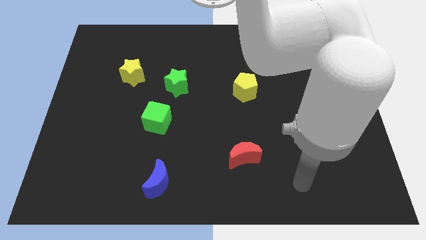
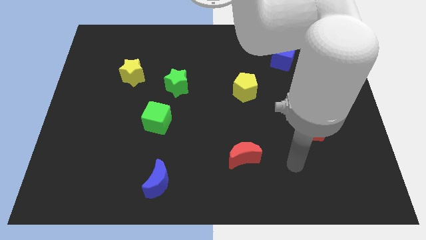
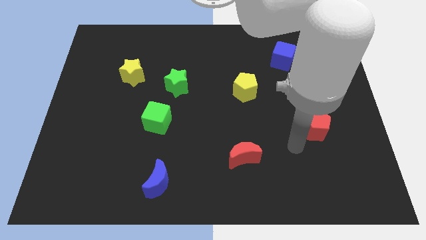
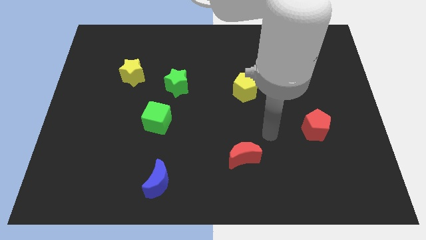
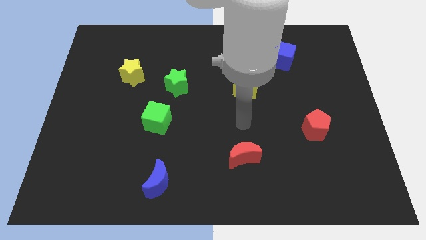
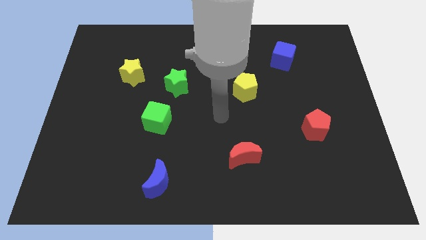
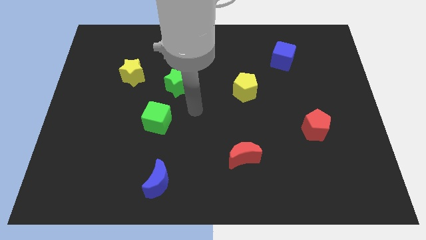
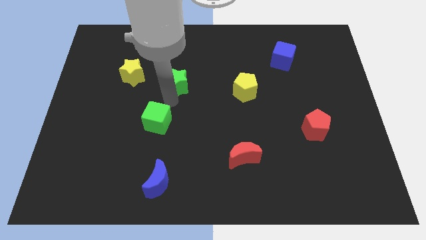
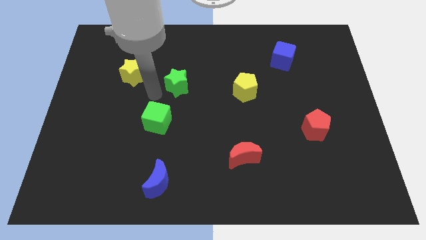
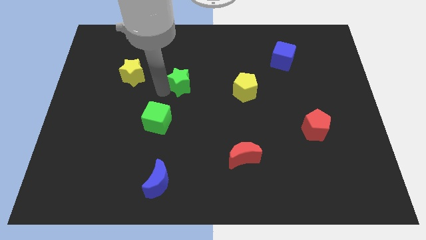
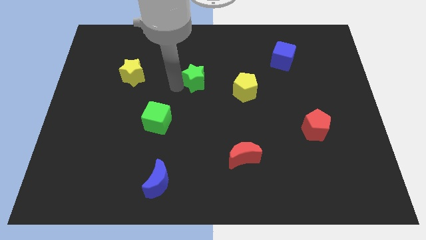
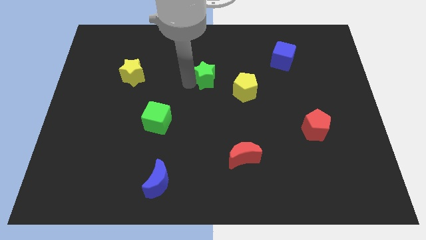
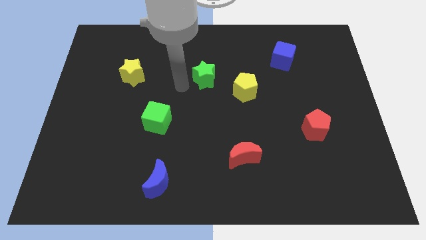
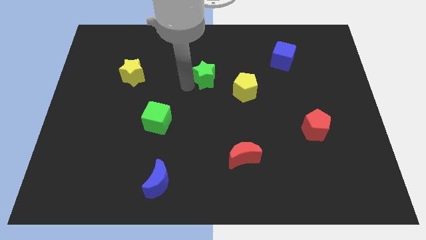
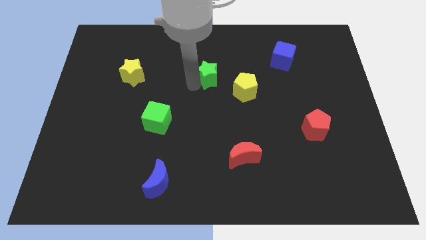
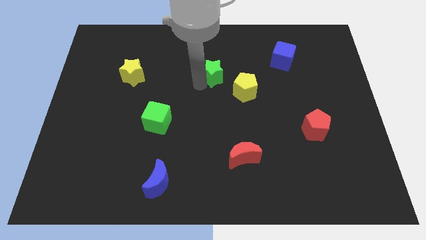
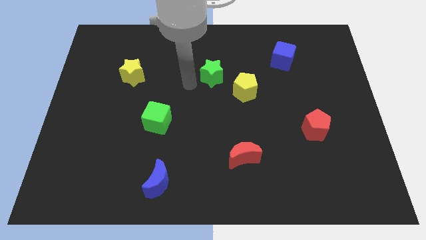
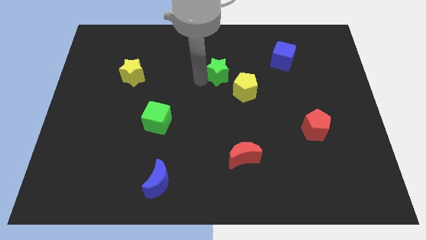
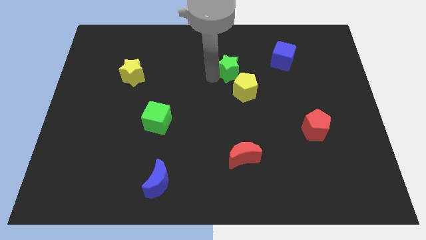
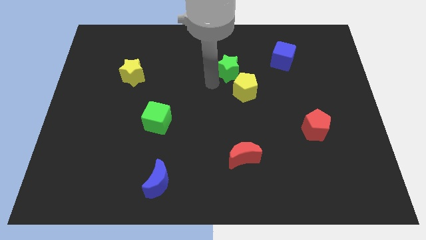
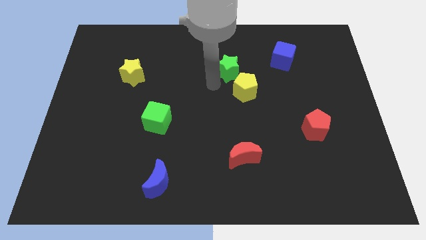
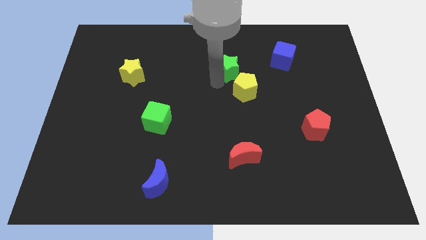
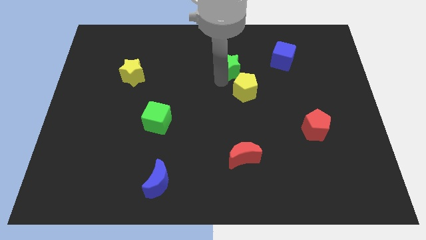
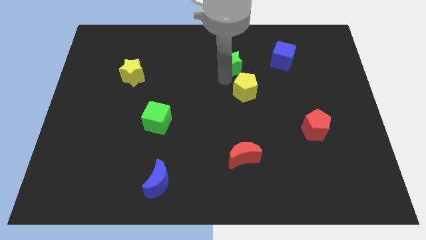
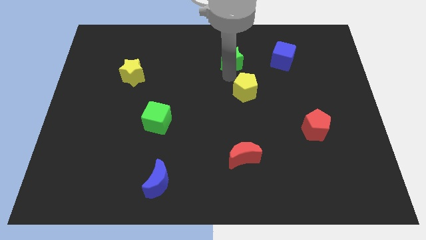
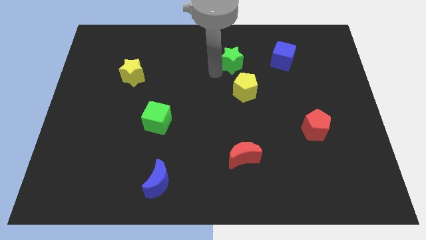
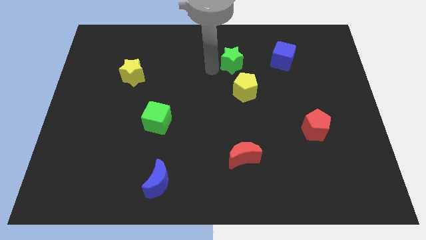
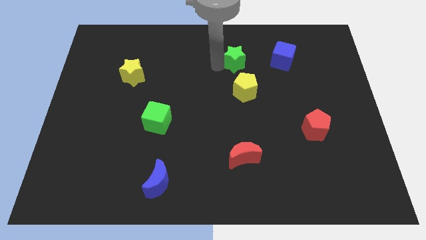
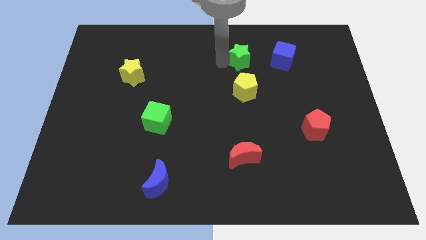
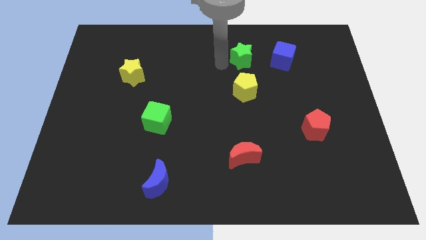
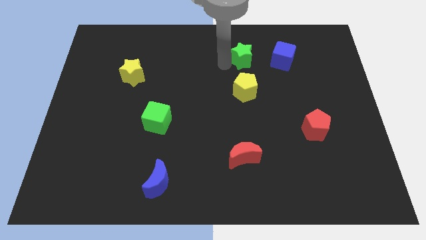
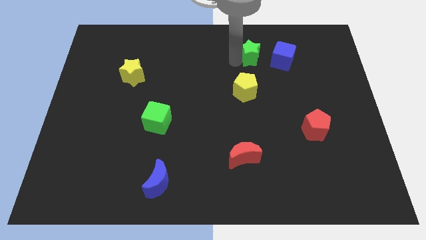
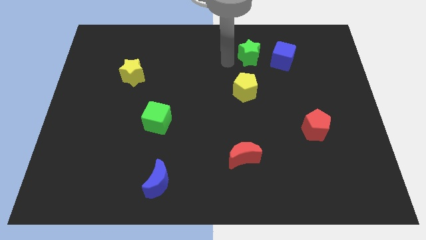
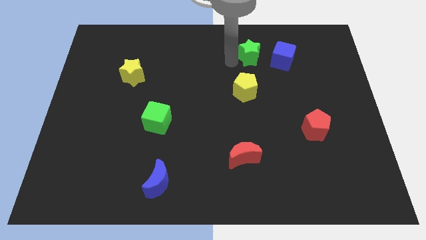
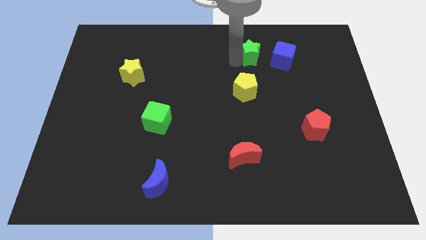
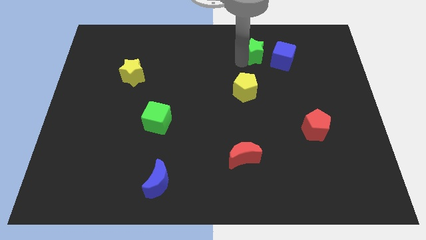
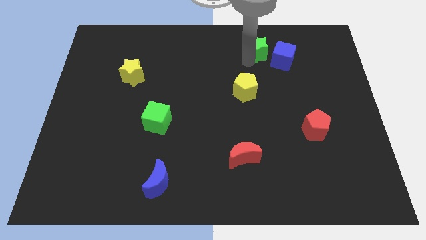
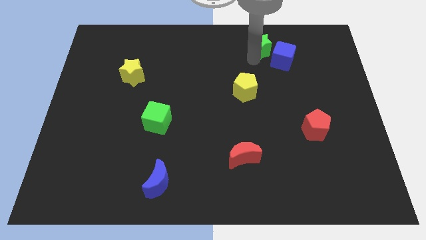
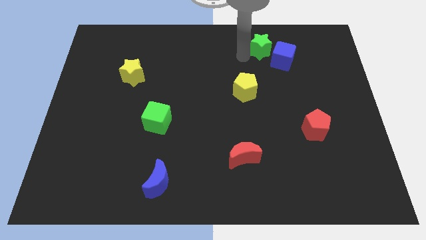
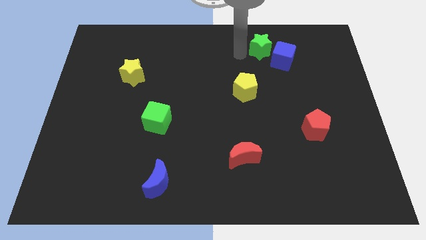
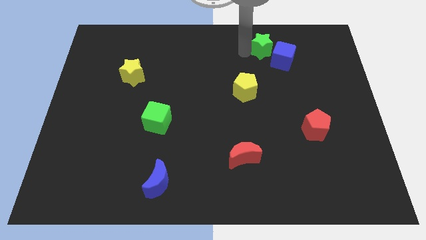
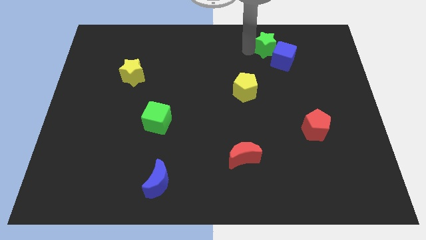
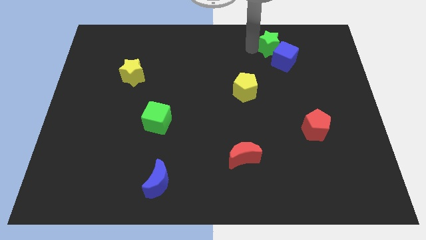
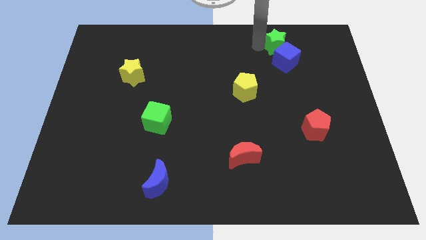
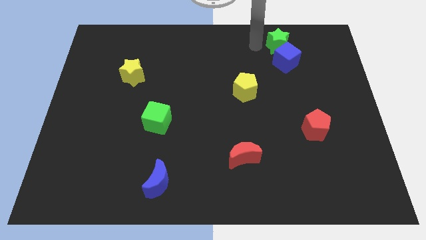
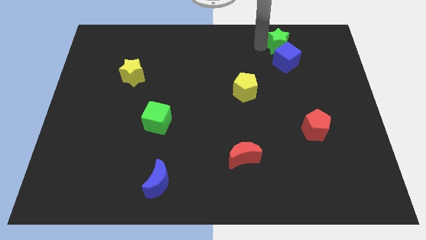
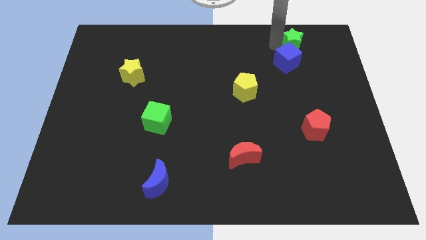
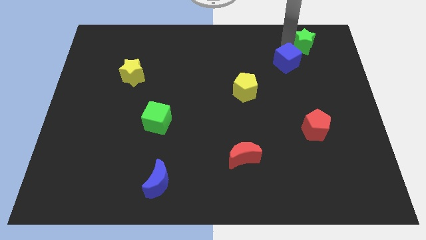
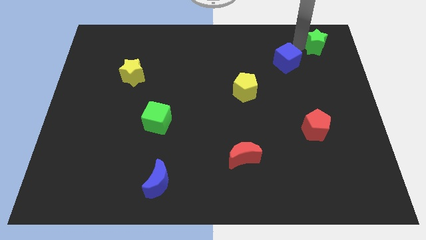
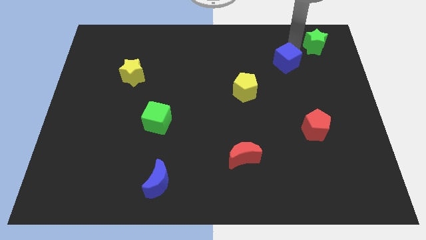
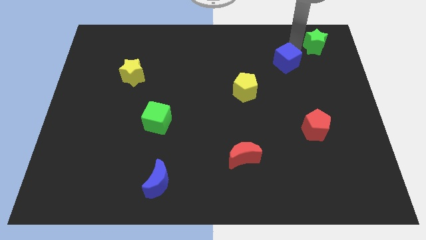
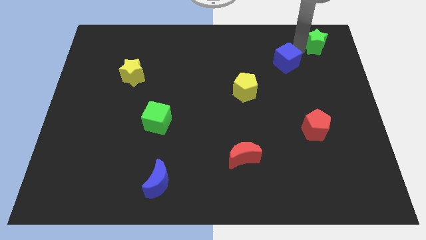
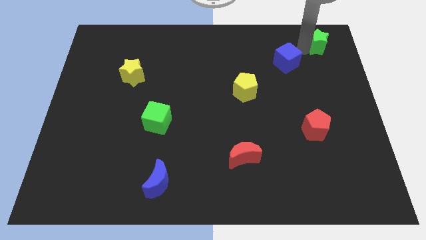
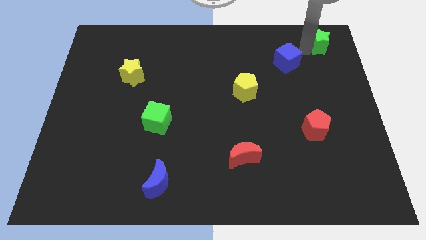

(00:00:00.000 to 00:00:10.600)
slide the green star to the top right corner

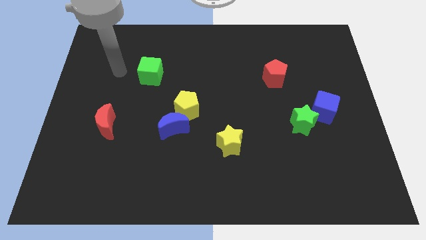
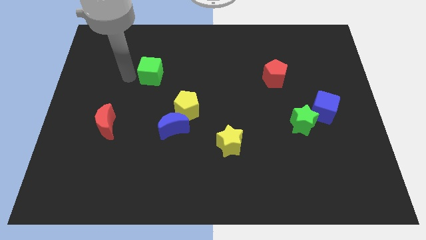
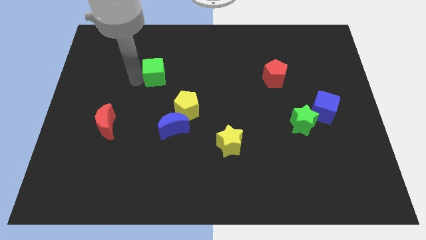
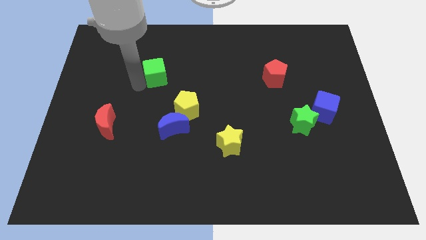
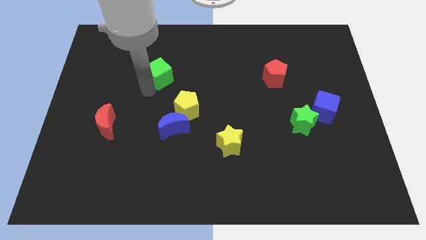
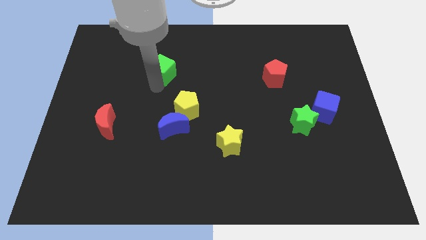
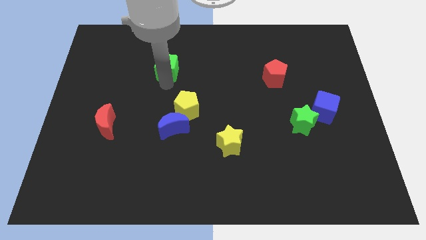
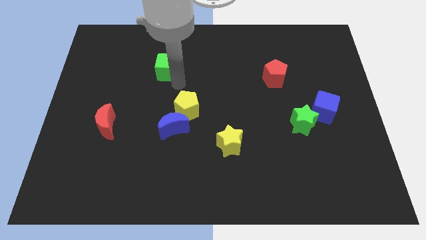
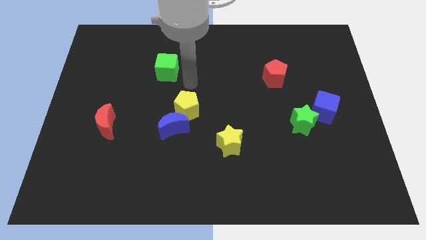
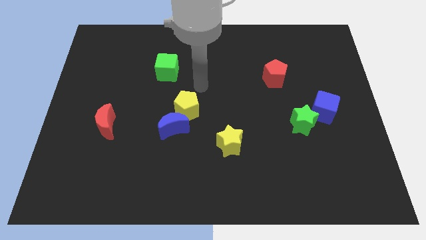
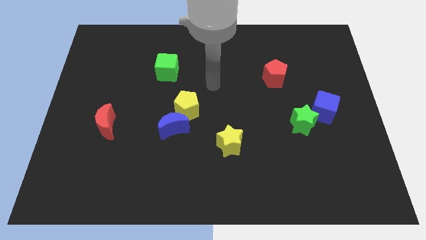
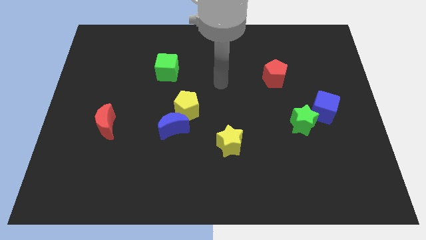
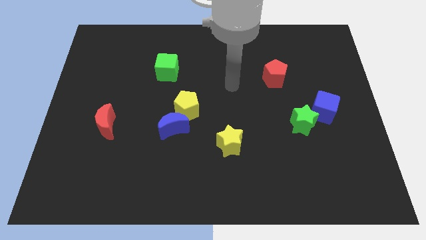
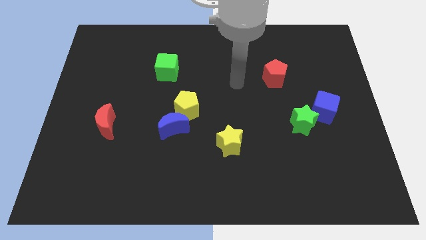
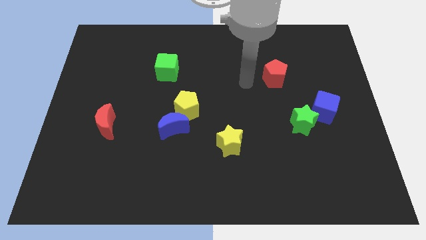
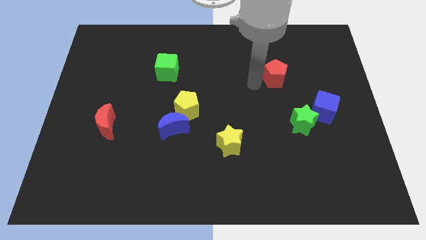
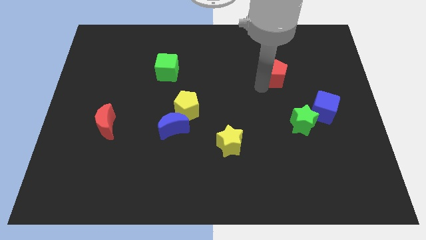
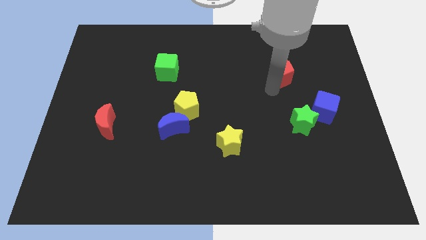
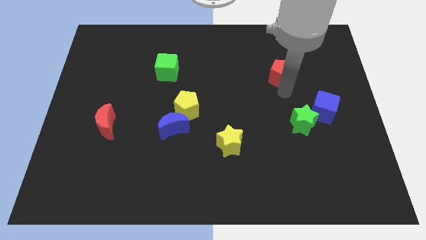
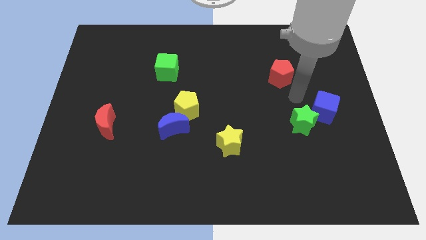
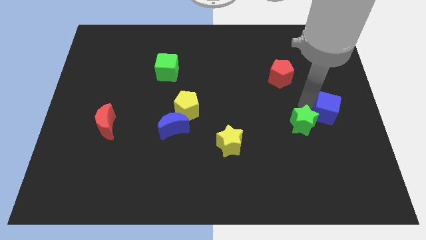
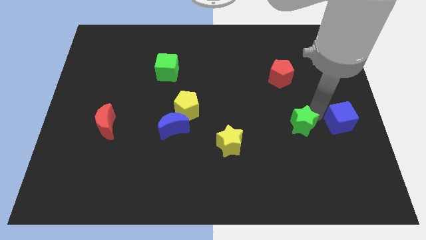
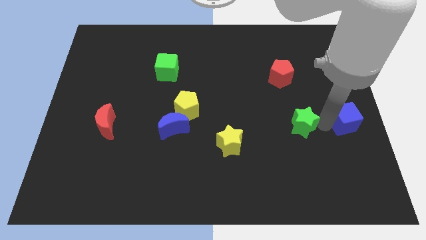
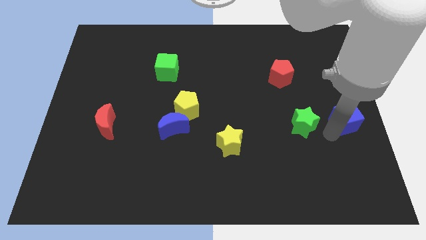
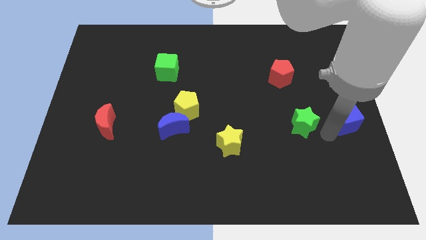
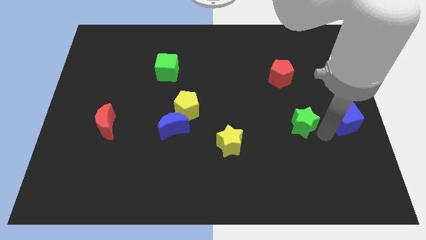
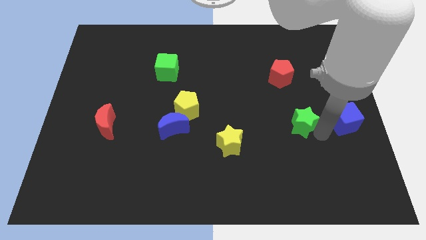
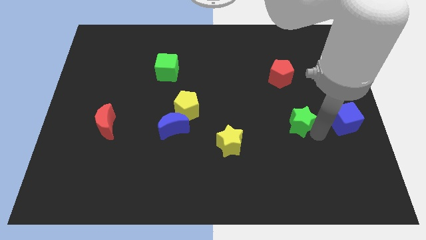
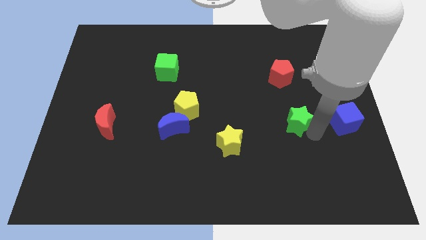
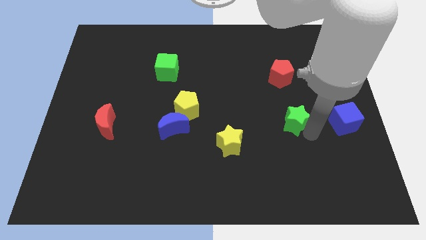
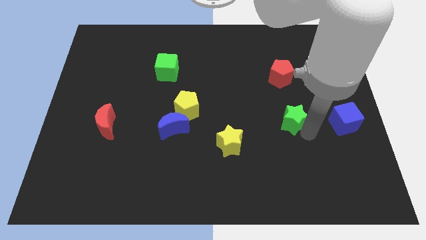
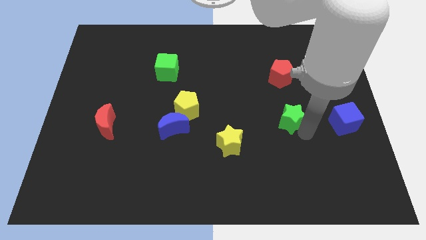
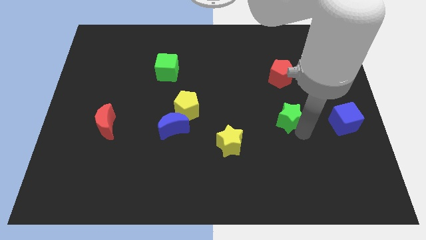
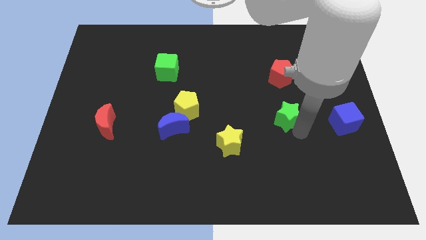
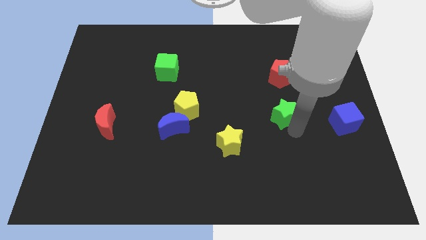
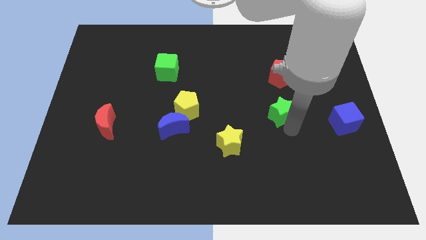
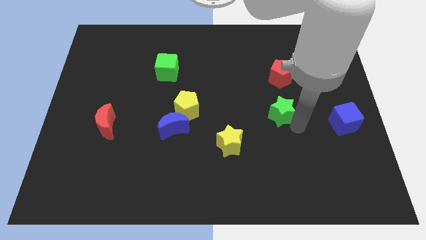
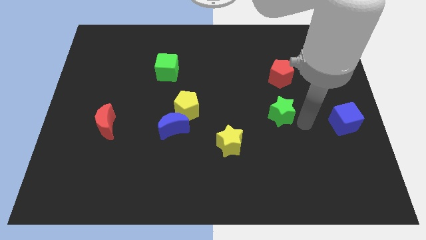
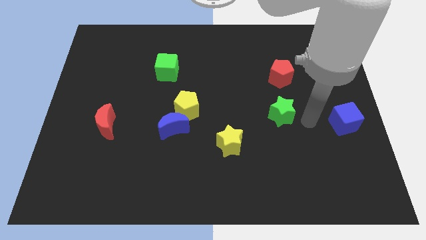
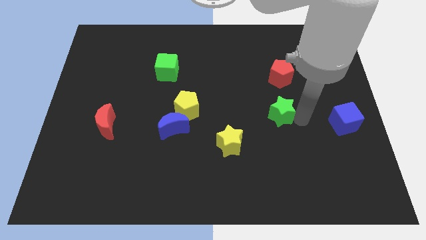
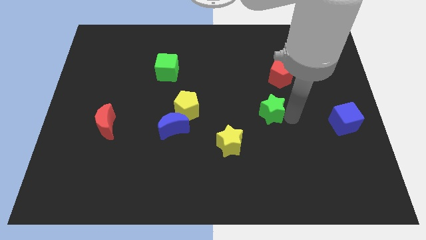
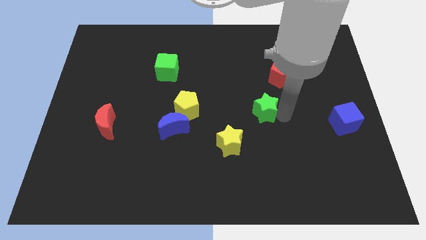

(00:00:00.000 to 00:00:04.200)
push the green star to the center
